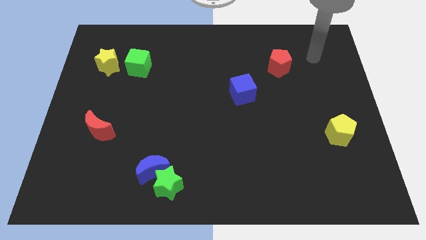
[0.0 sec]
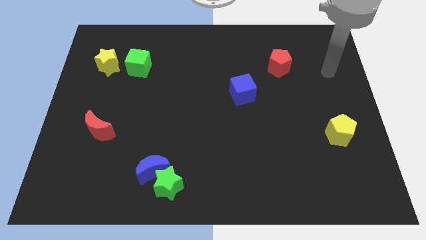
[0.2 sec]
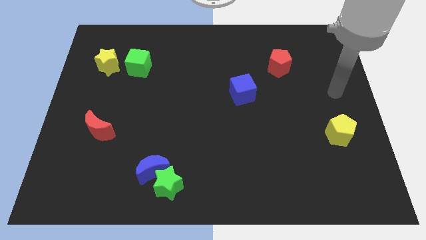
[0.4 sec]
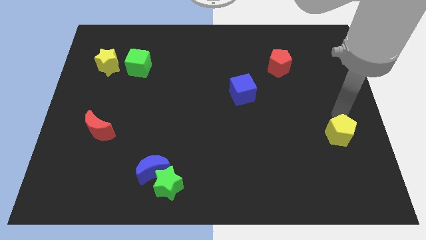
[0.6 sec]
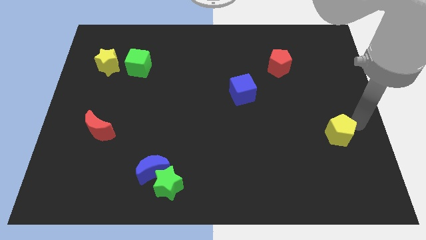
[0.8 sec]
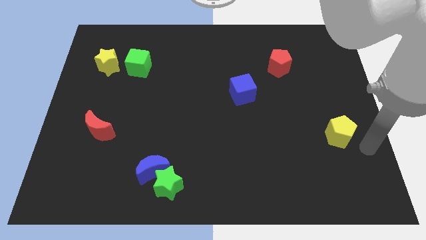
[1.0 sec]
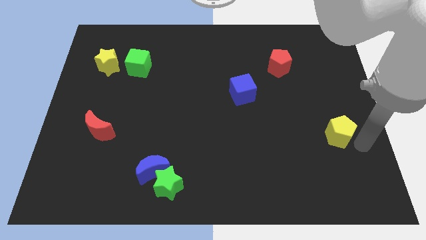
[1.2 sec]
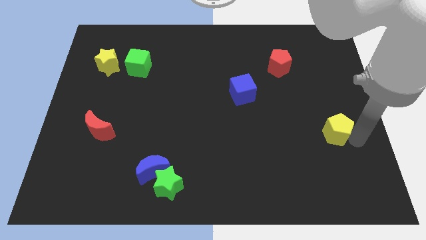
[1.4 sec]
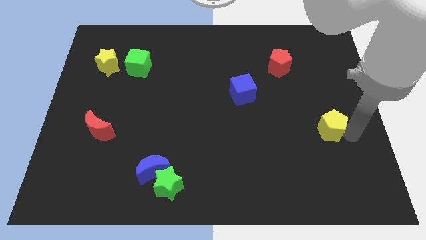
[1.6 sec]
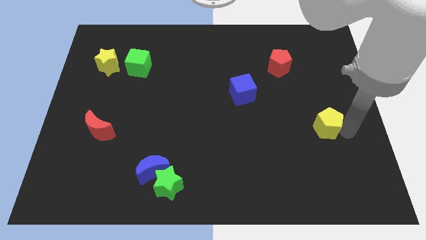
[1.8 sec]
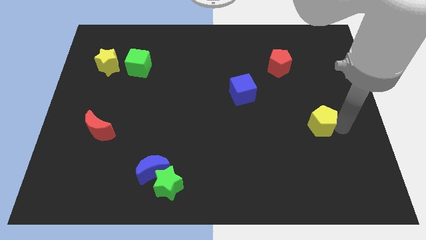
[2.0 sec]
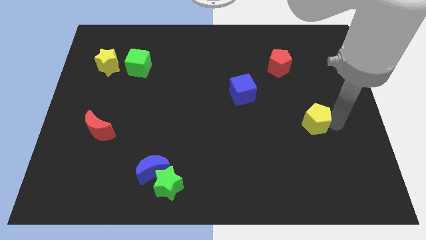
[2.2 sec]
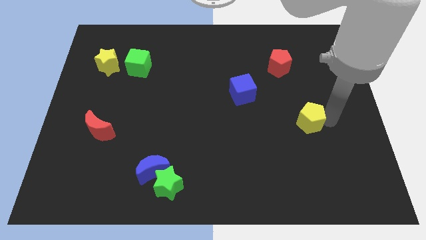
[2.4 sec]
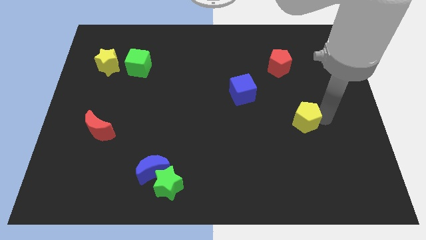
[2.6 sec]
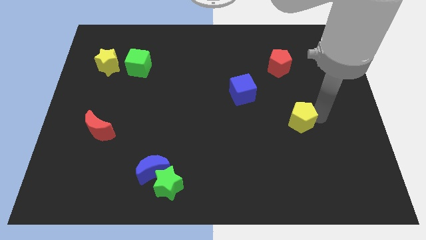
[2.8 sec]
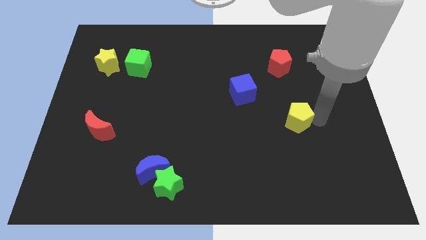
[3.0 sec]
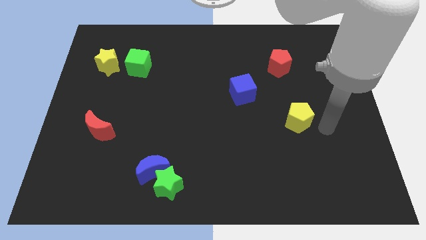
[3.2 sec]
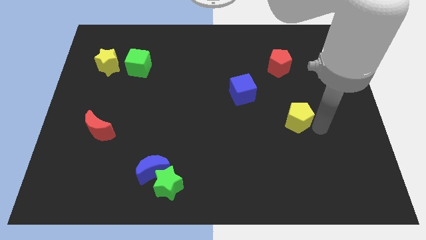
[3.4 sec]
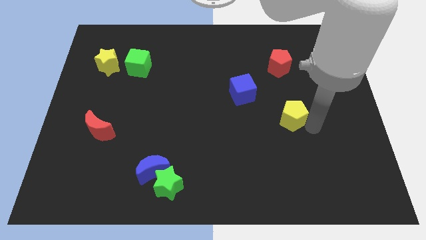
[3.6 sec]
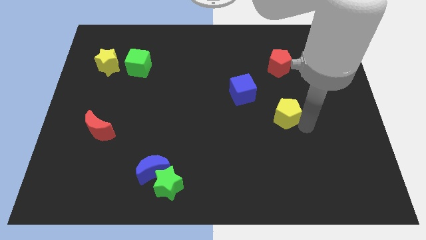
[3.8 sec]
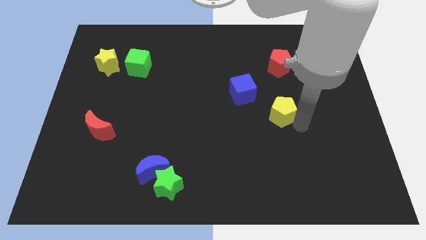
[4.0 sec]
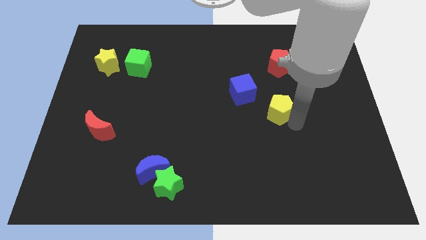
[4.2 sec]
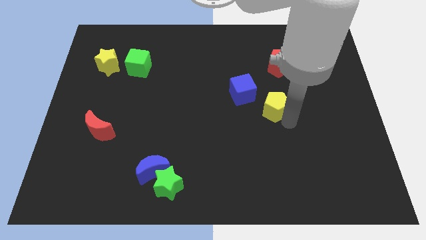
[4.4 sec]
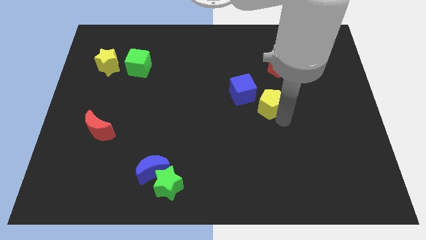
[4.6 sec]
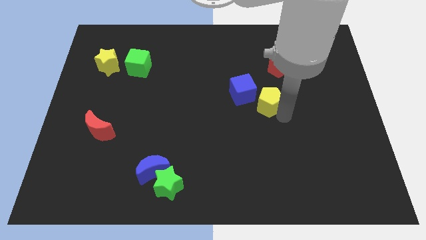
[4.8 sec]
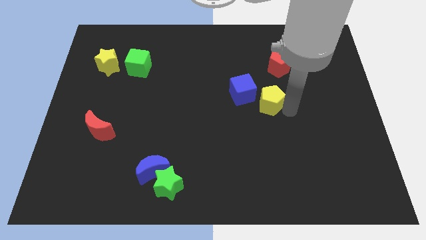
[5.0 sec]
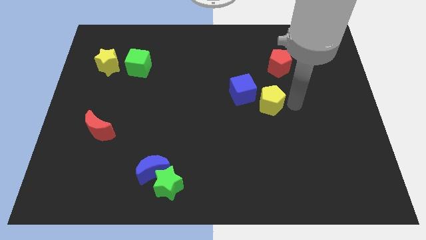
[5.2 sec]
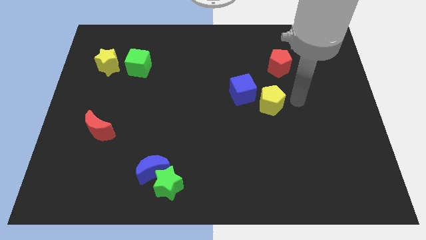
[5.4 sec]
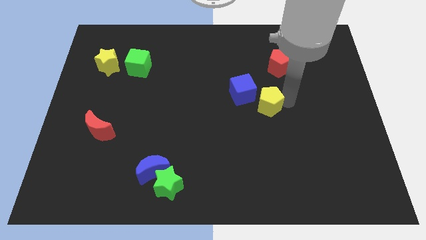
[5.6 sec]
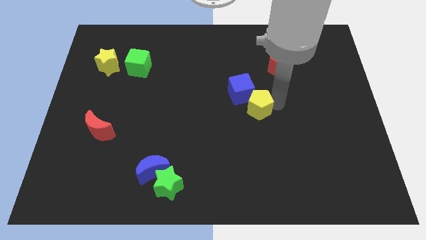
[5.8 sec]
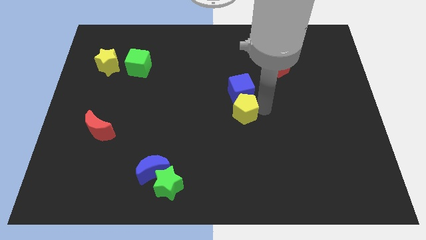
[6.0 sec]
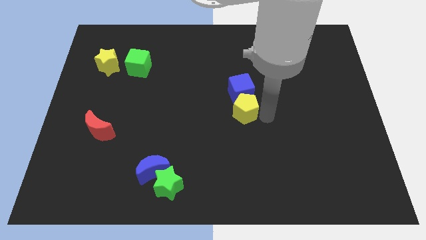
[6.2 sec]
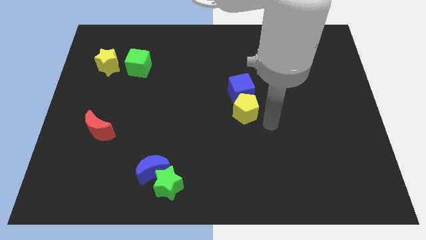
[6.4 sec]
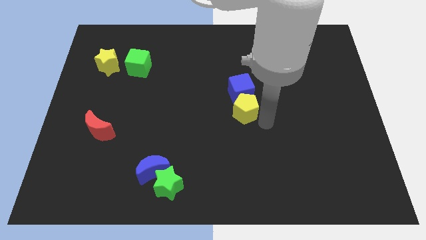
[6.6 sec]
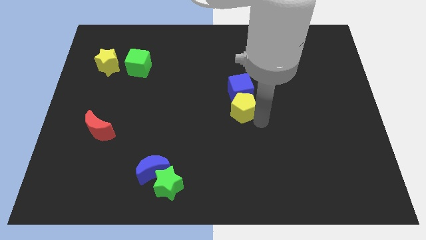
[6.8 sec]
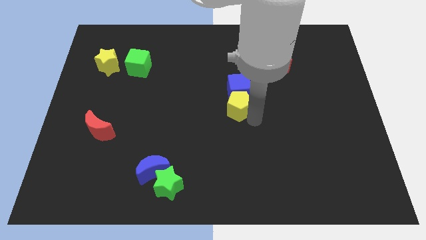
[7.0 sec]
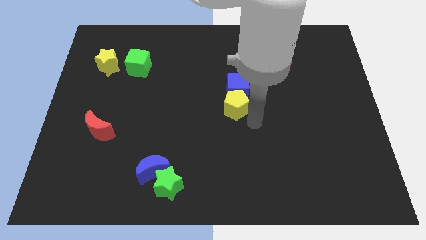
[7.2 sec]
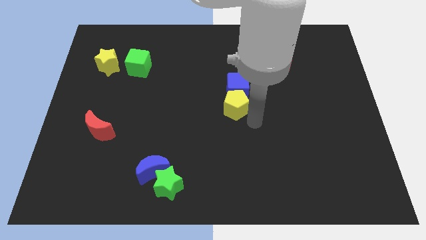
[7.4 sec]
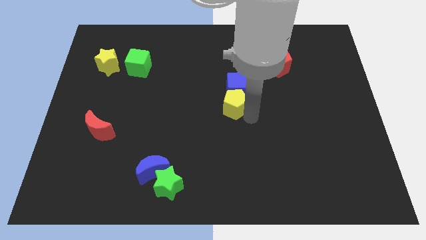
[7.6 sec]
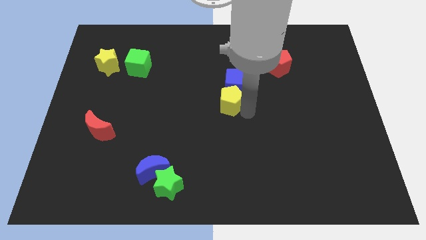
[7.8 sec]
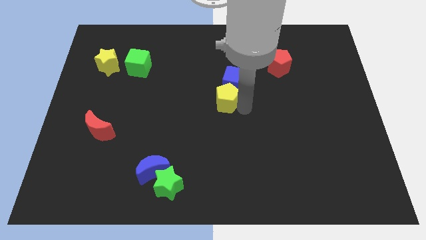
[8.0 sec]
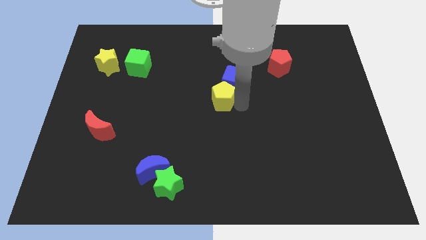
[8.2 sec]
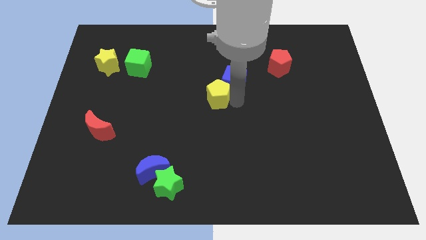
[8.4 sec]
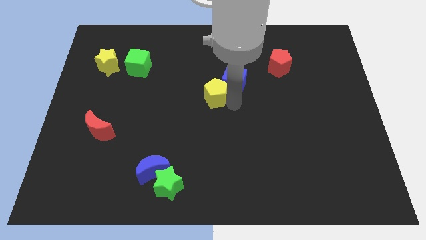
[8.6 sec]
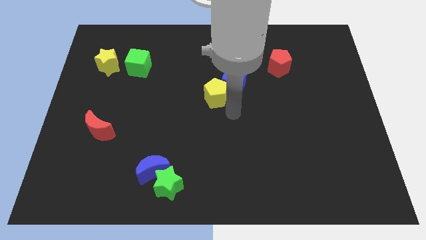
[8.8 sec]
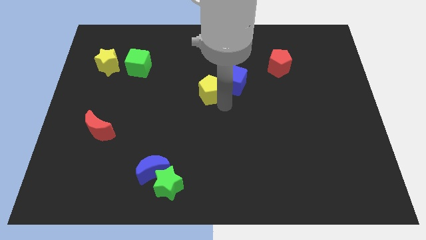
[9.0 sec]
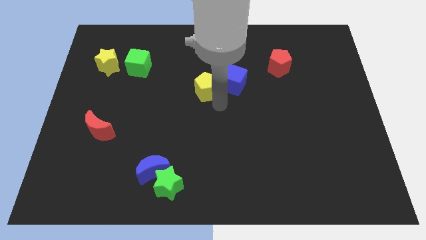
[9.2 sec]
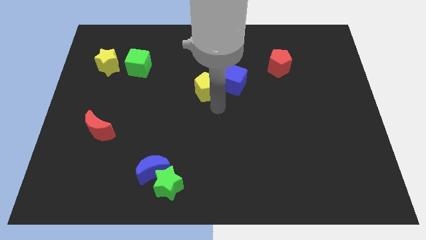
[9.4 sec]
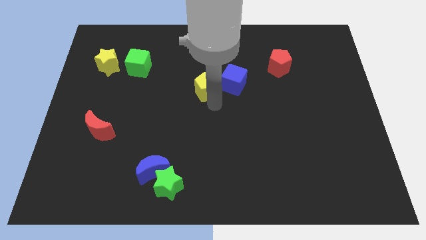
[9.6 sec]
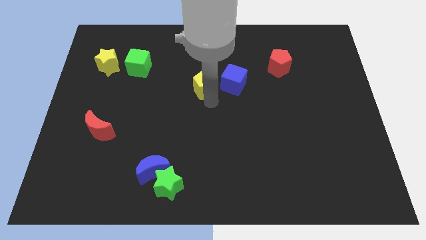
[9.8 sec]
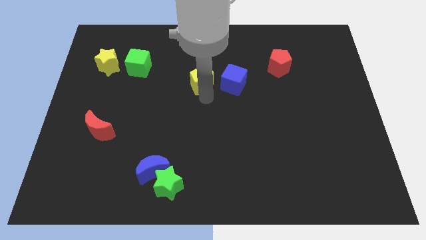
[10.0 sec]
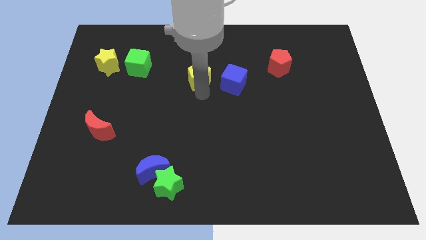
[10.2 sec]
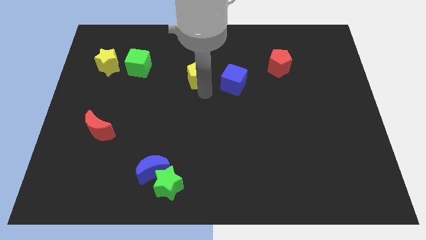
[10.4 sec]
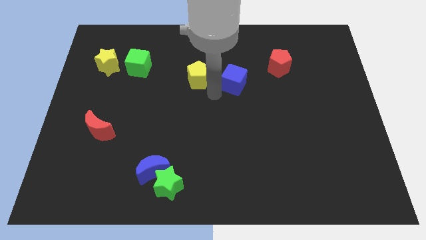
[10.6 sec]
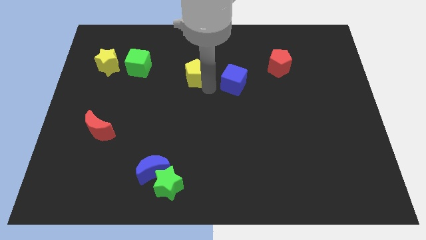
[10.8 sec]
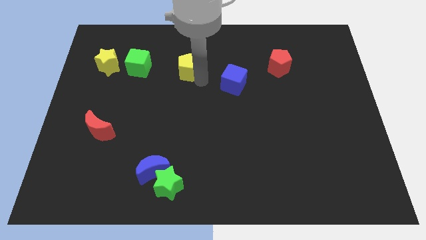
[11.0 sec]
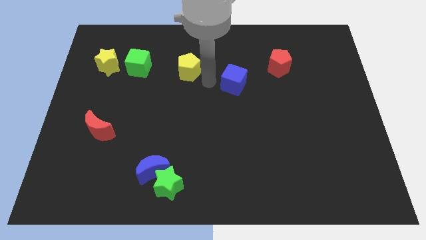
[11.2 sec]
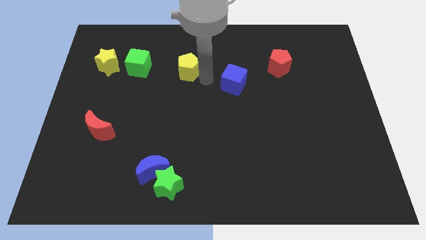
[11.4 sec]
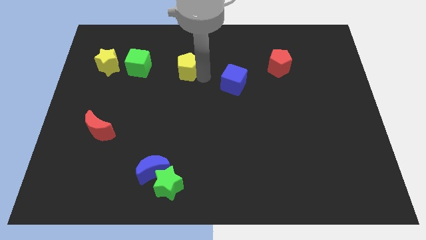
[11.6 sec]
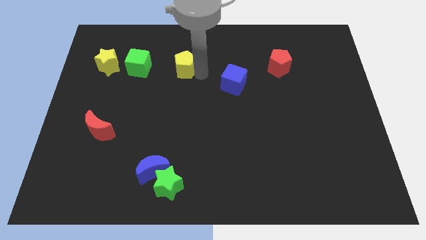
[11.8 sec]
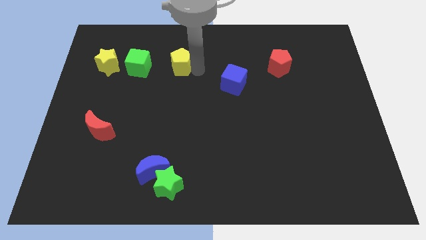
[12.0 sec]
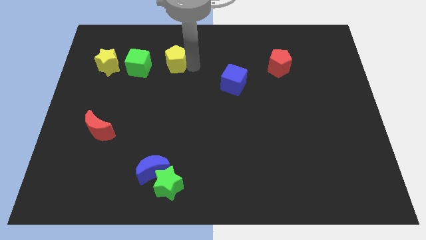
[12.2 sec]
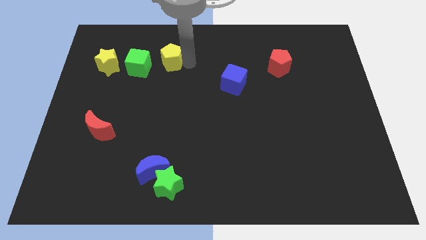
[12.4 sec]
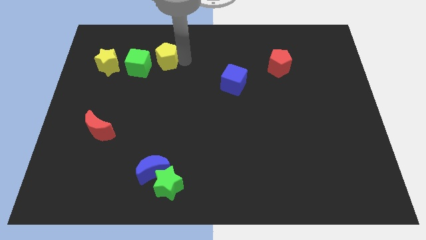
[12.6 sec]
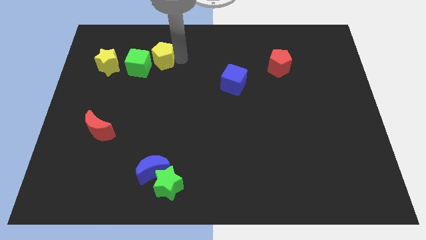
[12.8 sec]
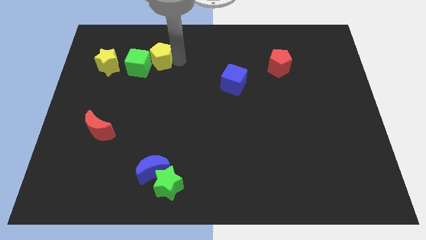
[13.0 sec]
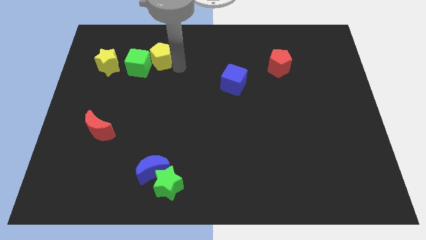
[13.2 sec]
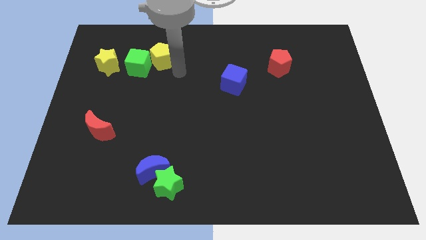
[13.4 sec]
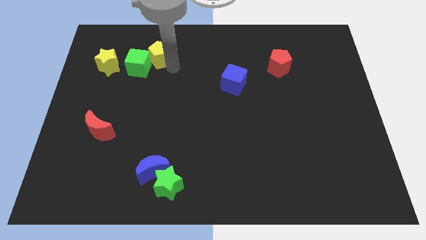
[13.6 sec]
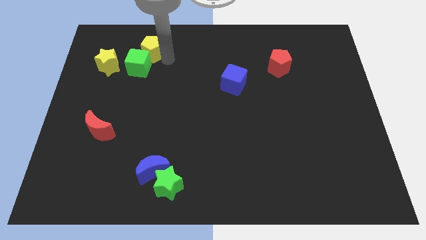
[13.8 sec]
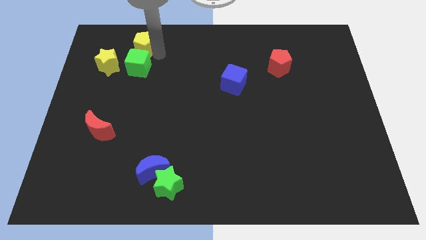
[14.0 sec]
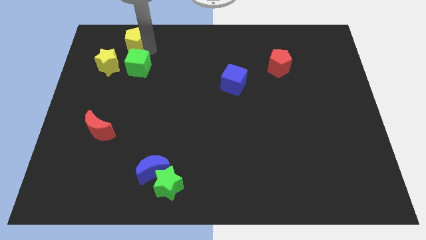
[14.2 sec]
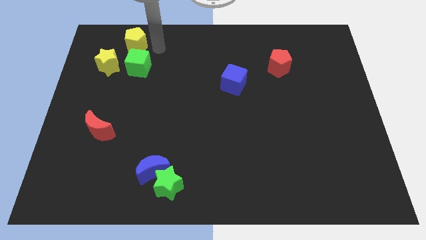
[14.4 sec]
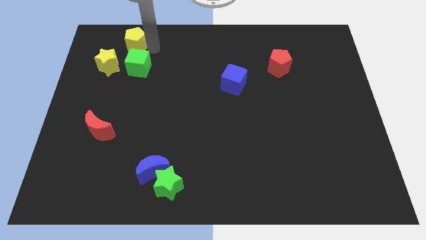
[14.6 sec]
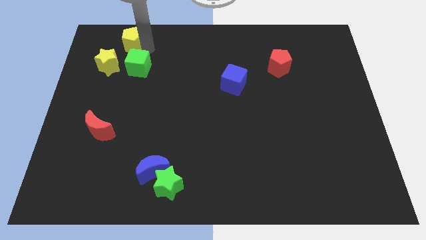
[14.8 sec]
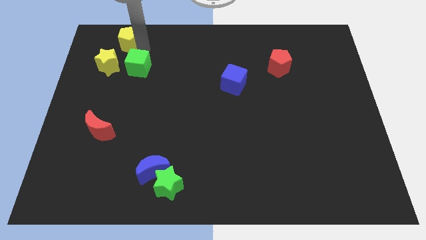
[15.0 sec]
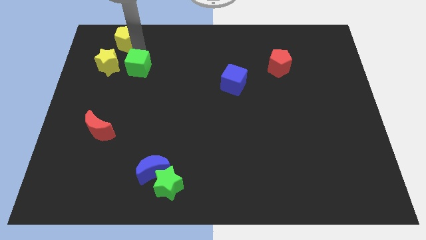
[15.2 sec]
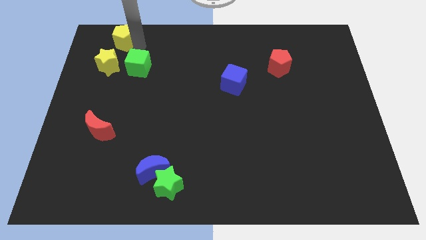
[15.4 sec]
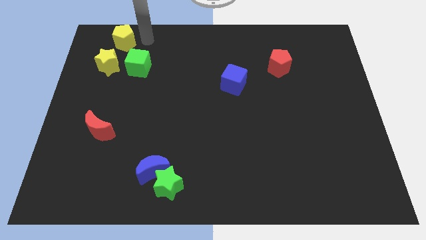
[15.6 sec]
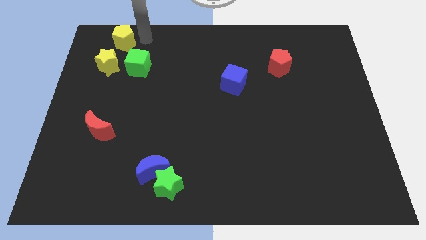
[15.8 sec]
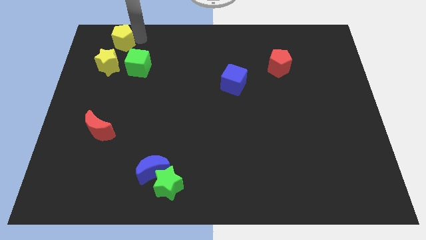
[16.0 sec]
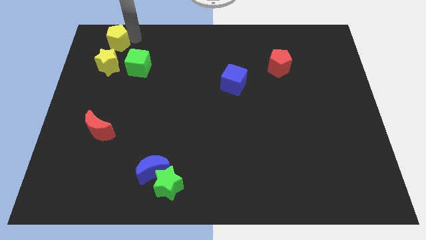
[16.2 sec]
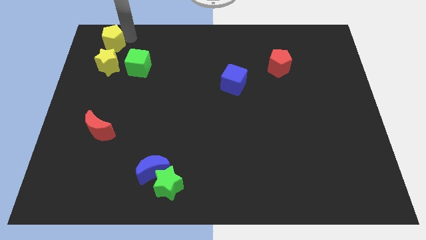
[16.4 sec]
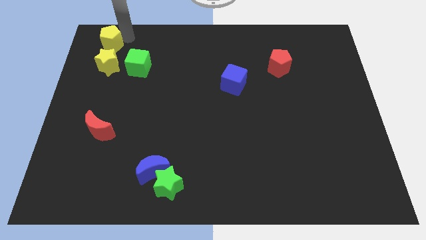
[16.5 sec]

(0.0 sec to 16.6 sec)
move the yellow pentagon to the top left of the board
